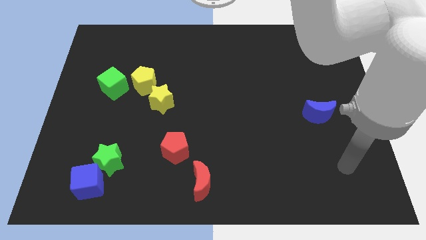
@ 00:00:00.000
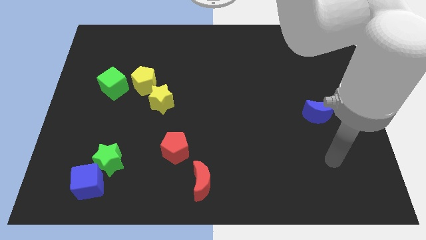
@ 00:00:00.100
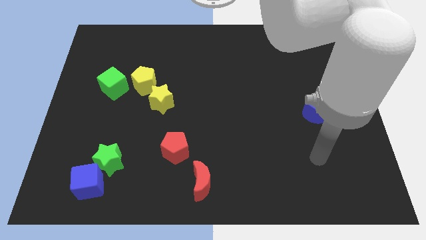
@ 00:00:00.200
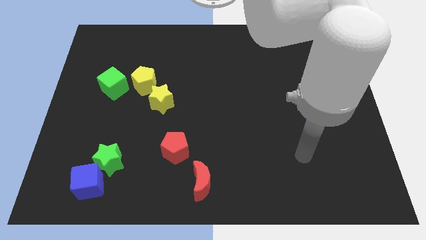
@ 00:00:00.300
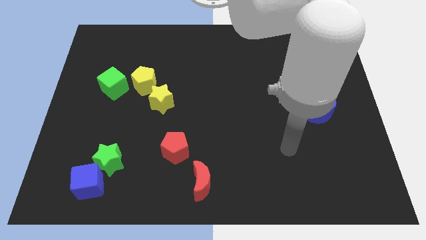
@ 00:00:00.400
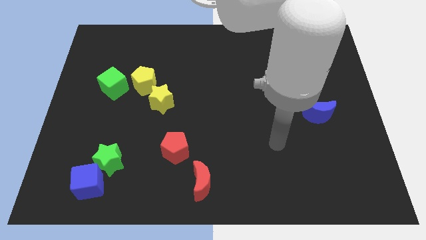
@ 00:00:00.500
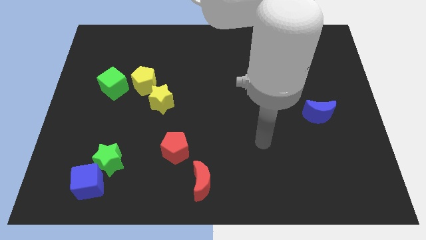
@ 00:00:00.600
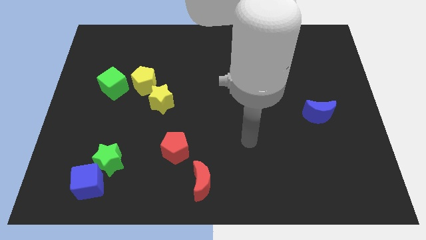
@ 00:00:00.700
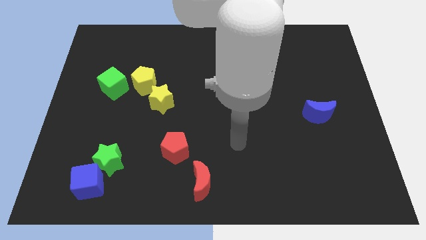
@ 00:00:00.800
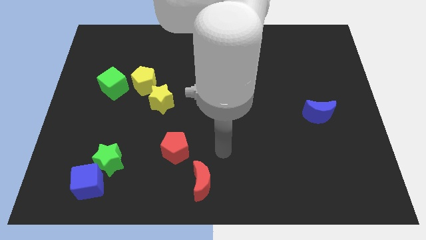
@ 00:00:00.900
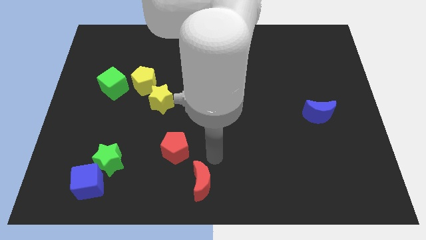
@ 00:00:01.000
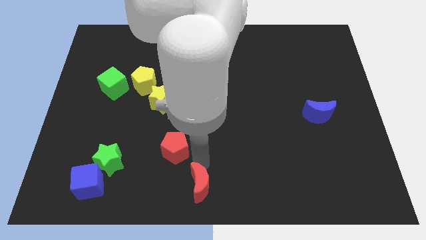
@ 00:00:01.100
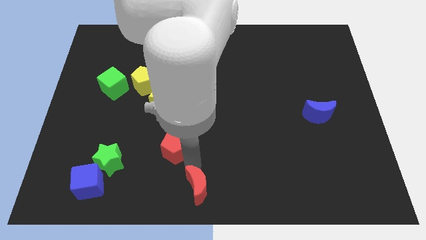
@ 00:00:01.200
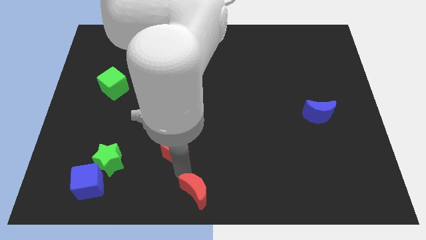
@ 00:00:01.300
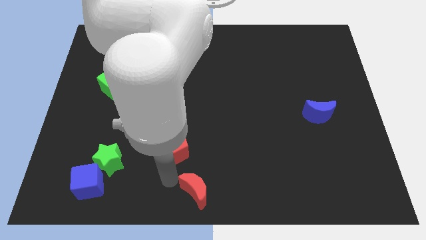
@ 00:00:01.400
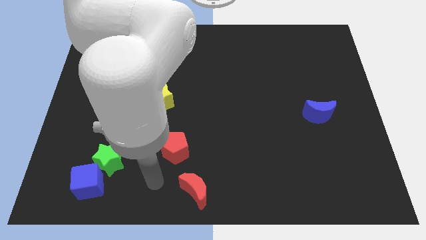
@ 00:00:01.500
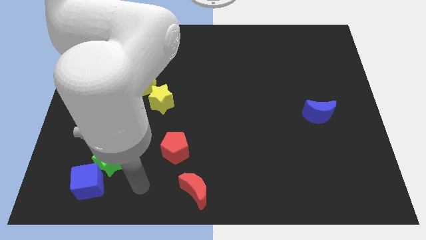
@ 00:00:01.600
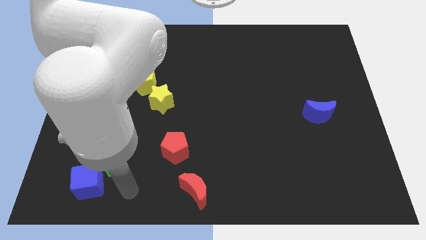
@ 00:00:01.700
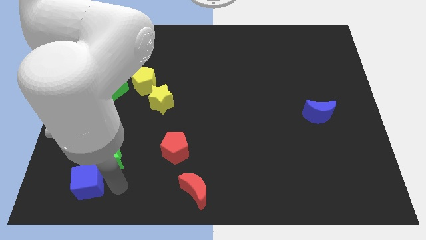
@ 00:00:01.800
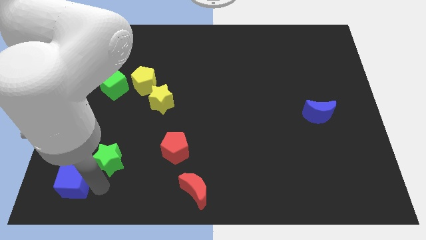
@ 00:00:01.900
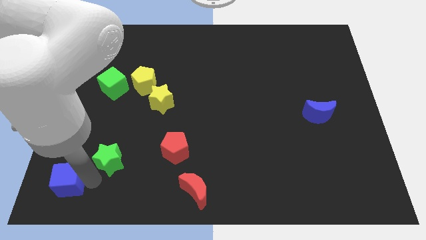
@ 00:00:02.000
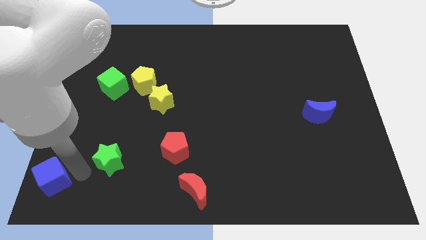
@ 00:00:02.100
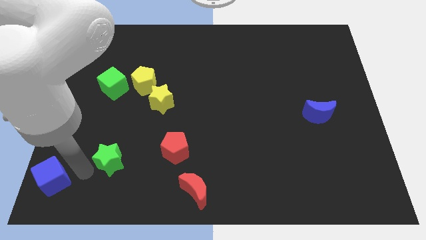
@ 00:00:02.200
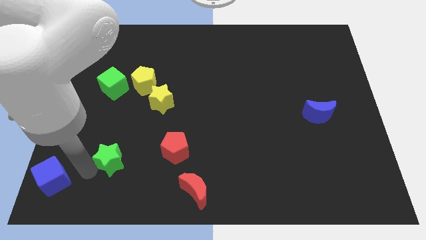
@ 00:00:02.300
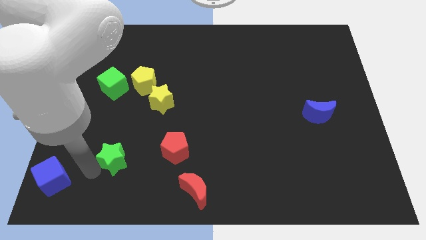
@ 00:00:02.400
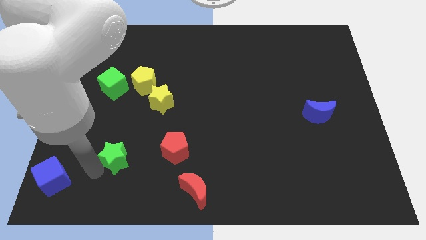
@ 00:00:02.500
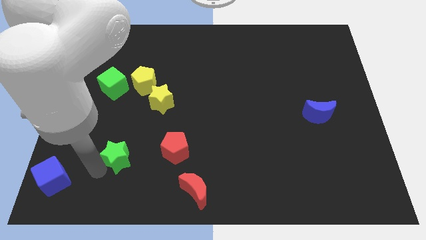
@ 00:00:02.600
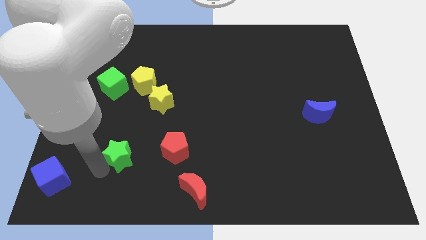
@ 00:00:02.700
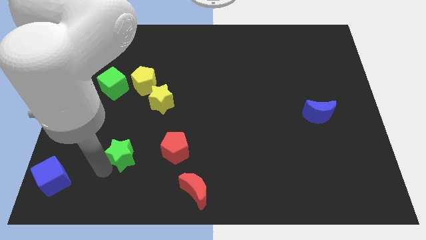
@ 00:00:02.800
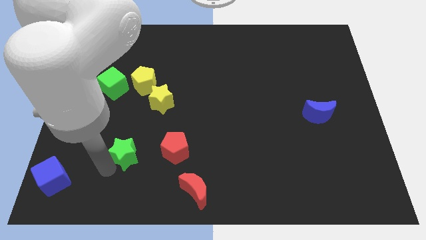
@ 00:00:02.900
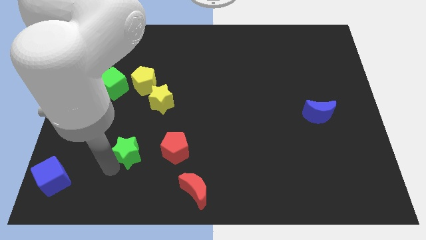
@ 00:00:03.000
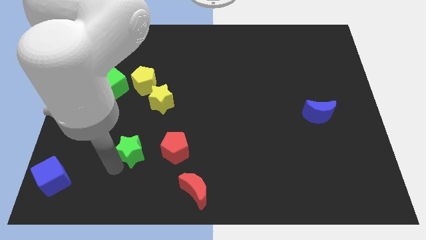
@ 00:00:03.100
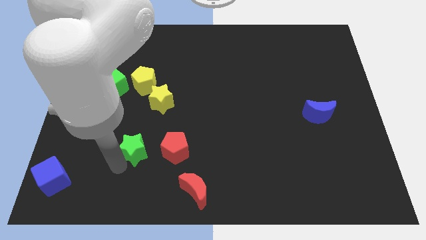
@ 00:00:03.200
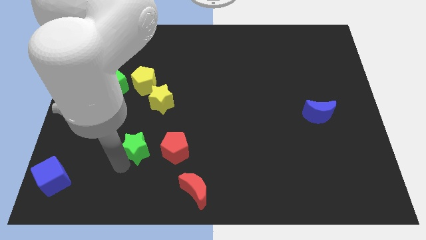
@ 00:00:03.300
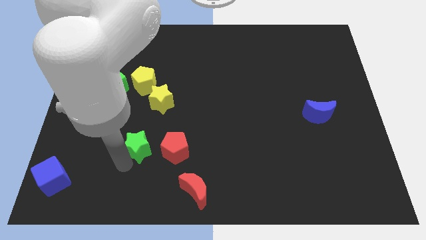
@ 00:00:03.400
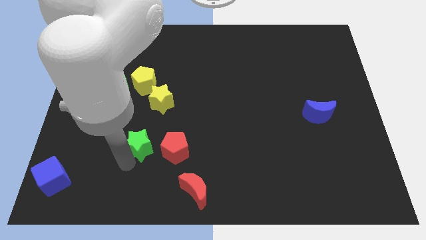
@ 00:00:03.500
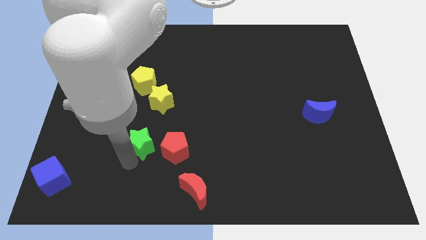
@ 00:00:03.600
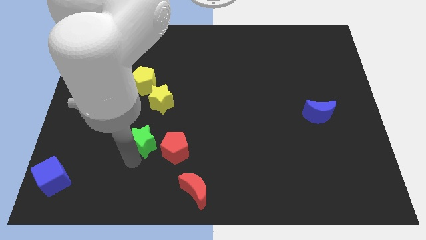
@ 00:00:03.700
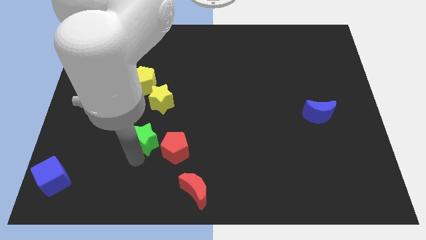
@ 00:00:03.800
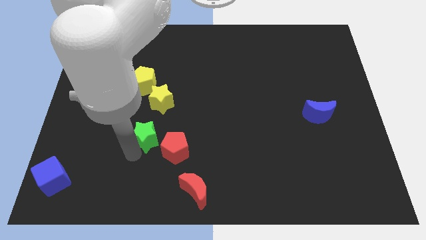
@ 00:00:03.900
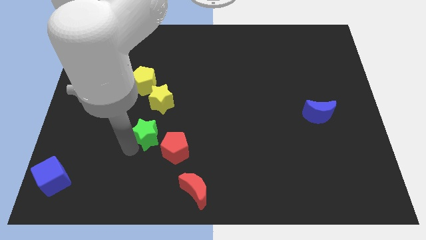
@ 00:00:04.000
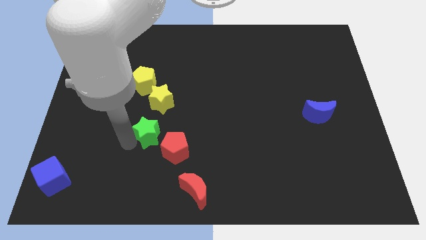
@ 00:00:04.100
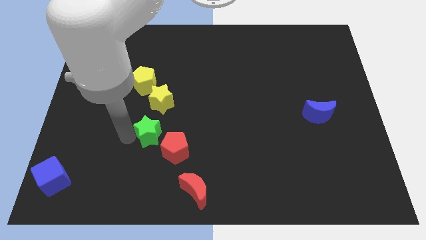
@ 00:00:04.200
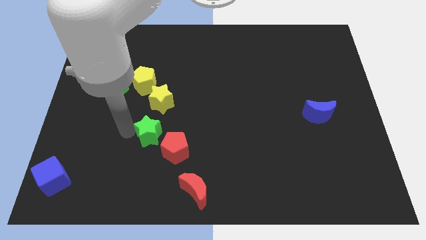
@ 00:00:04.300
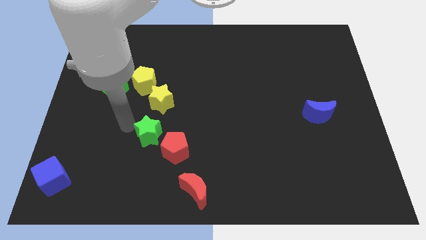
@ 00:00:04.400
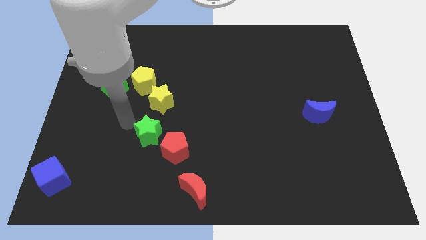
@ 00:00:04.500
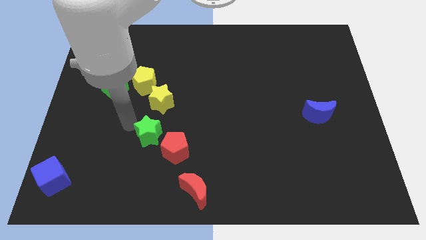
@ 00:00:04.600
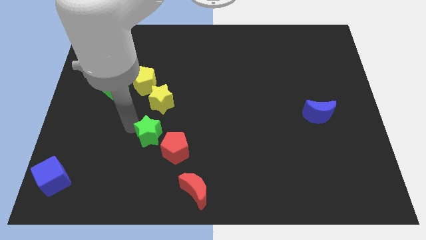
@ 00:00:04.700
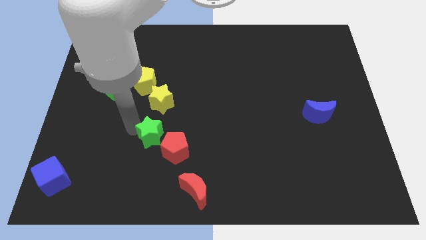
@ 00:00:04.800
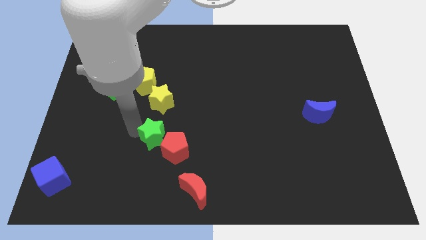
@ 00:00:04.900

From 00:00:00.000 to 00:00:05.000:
push the green star close to the red pentagon
